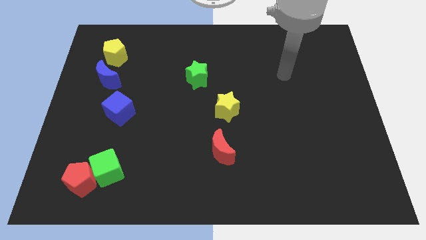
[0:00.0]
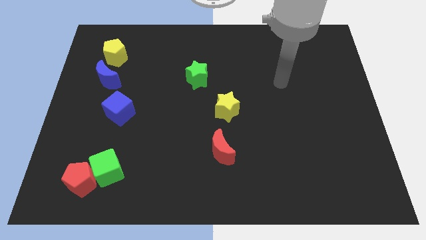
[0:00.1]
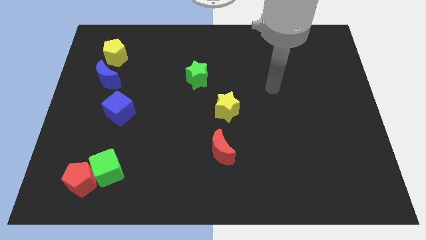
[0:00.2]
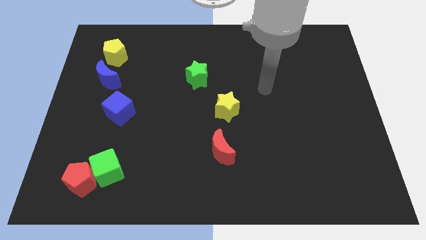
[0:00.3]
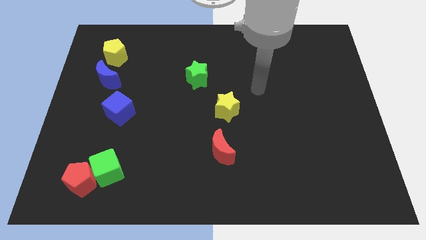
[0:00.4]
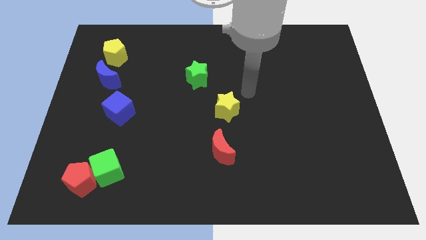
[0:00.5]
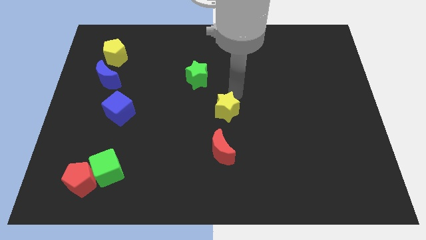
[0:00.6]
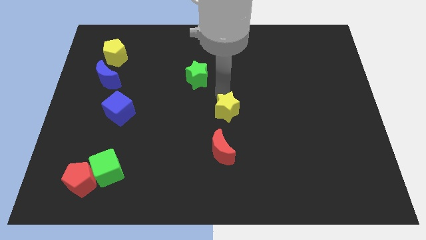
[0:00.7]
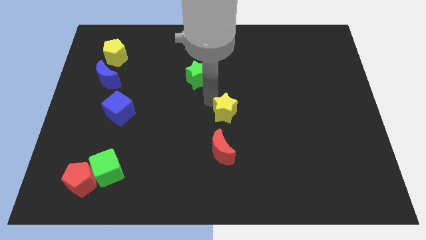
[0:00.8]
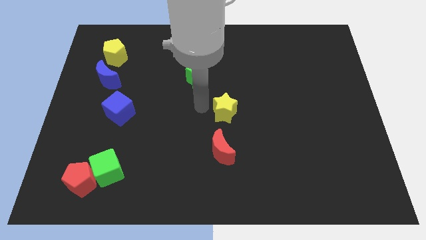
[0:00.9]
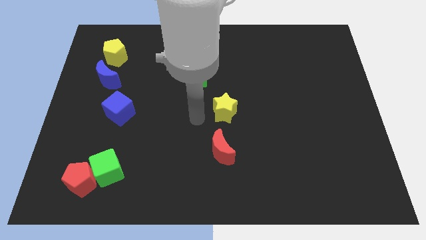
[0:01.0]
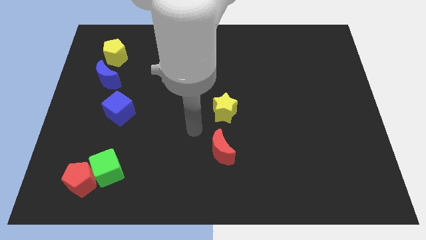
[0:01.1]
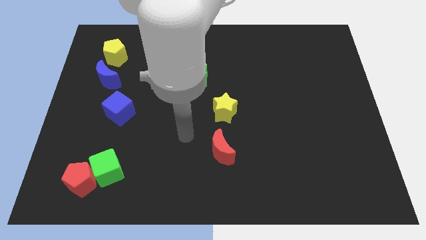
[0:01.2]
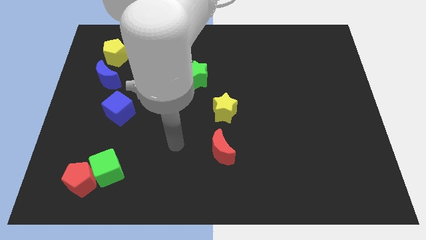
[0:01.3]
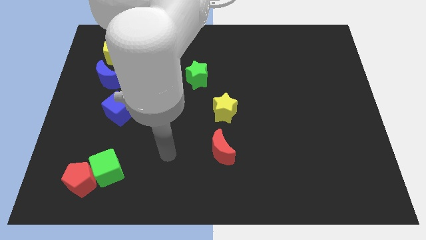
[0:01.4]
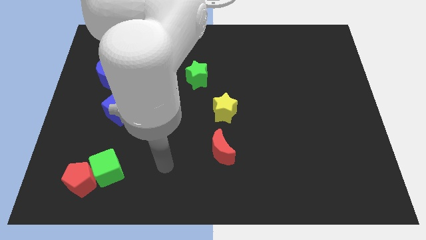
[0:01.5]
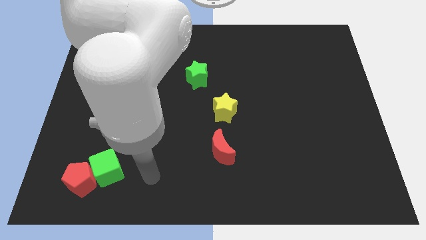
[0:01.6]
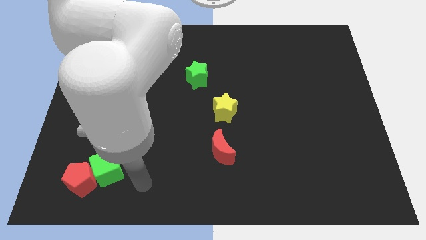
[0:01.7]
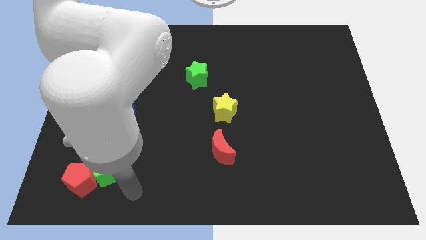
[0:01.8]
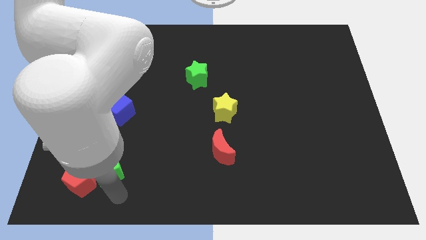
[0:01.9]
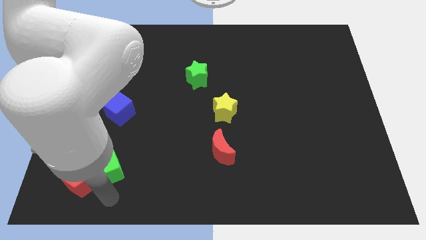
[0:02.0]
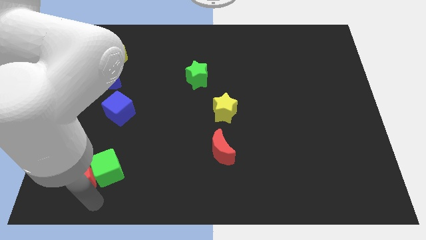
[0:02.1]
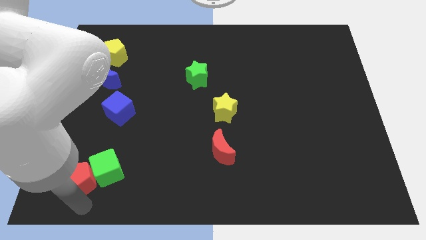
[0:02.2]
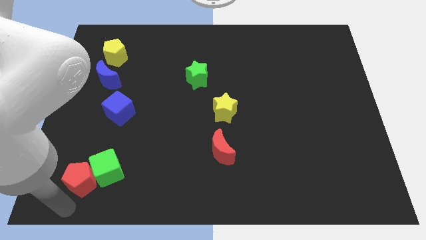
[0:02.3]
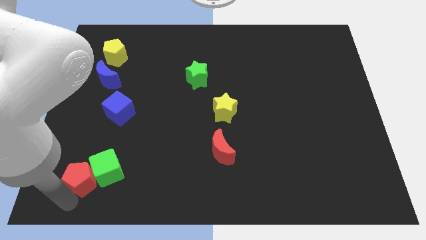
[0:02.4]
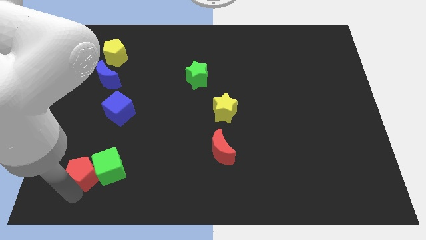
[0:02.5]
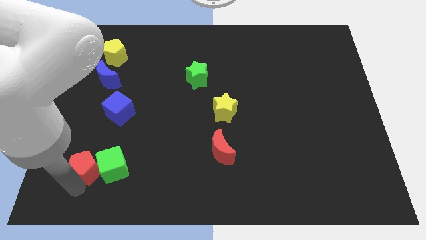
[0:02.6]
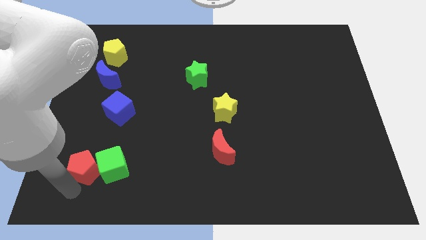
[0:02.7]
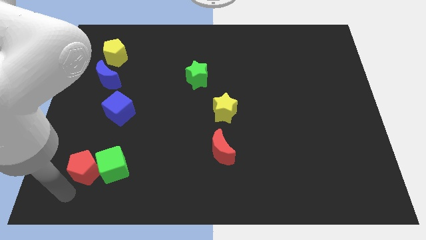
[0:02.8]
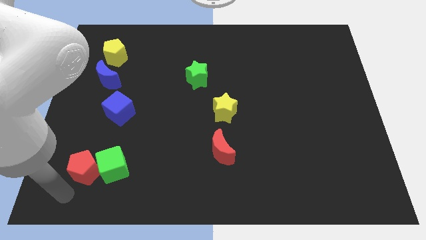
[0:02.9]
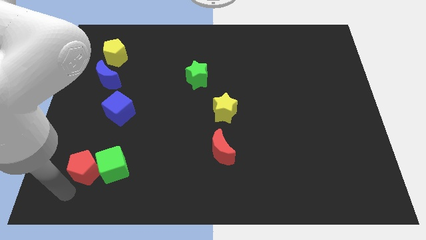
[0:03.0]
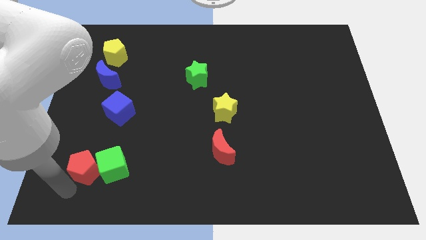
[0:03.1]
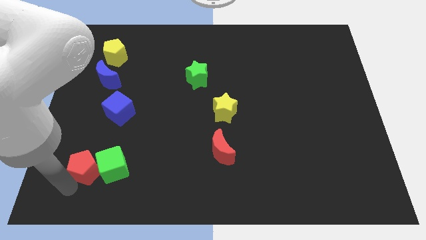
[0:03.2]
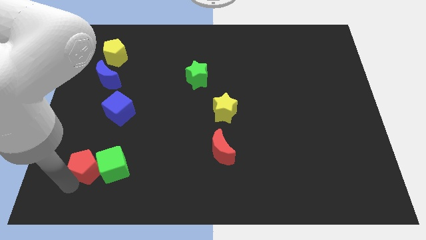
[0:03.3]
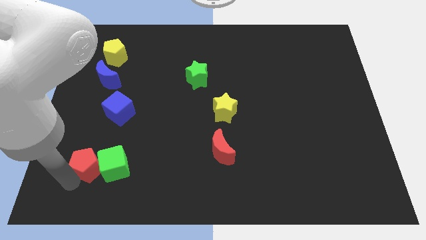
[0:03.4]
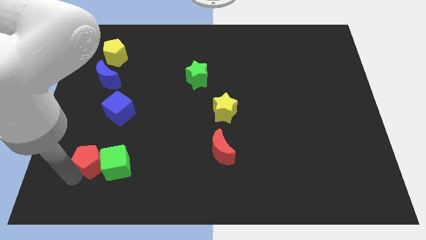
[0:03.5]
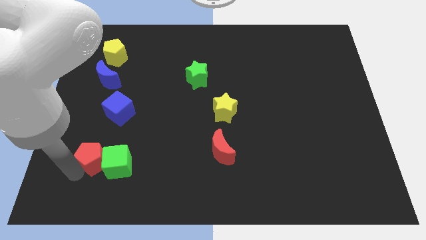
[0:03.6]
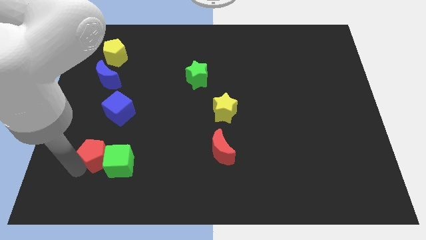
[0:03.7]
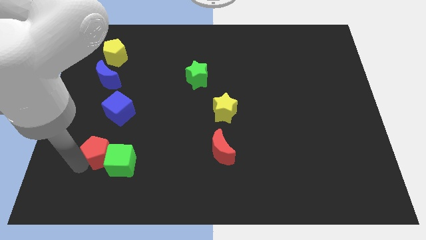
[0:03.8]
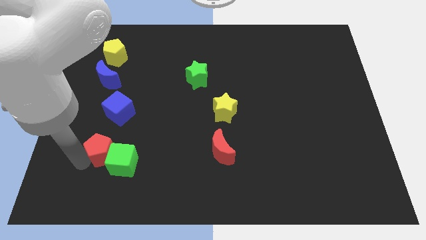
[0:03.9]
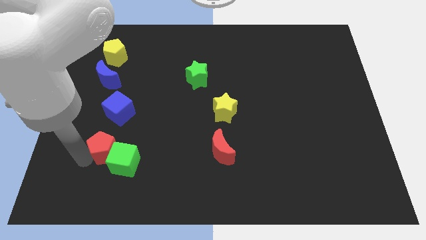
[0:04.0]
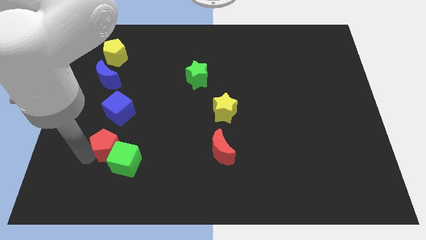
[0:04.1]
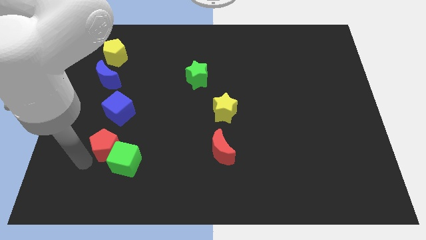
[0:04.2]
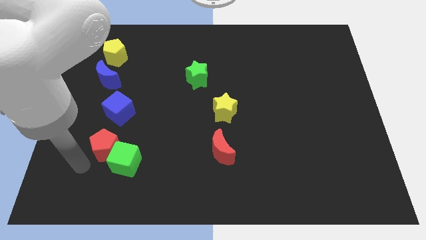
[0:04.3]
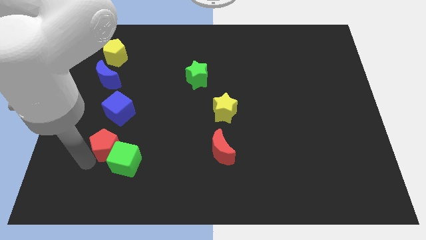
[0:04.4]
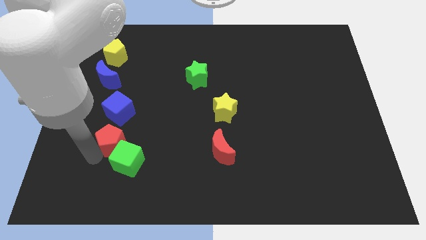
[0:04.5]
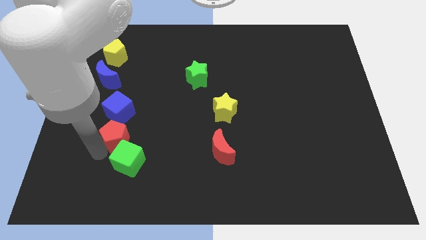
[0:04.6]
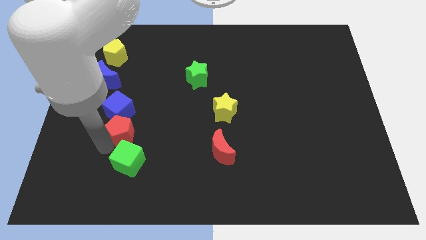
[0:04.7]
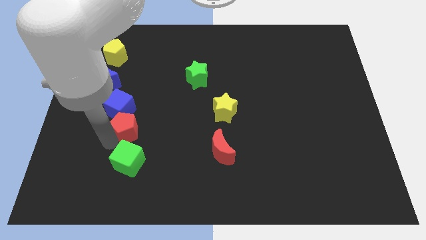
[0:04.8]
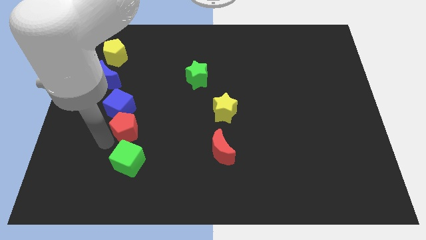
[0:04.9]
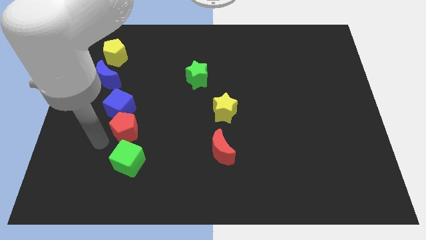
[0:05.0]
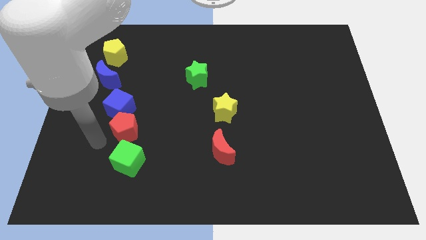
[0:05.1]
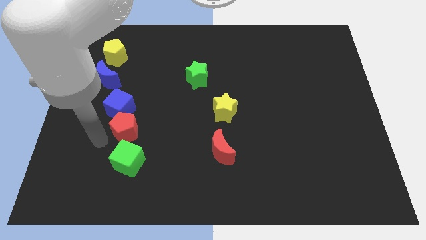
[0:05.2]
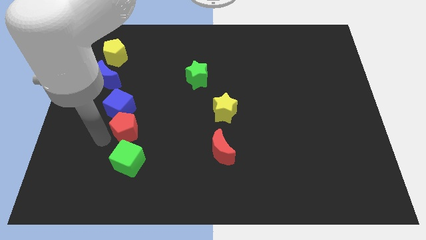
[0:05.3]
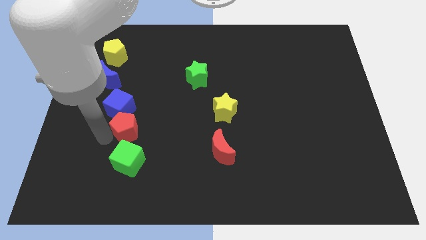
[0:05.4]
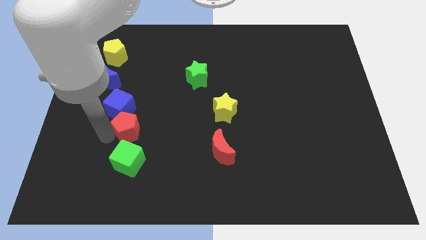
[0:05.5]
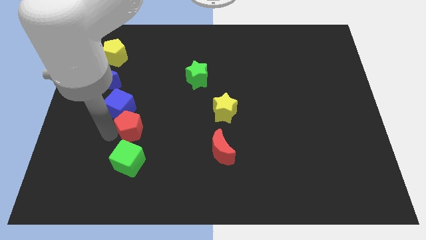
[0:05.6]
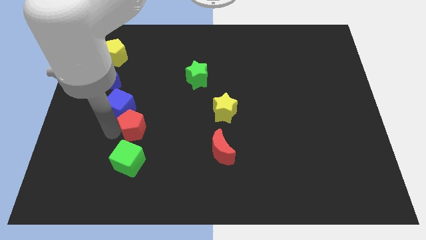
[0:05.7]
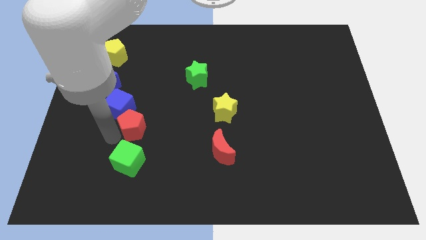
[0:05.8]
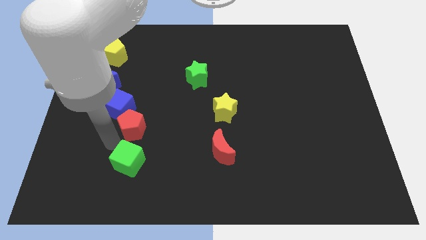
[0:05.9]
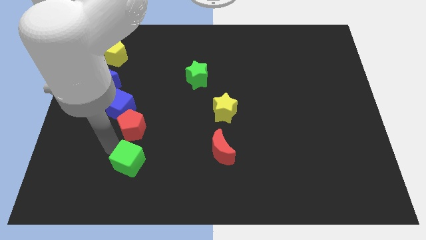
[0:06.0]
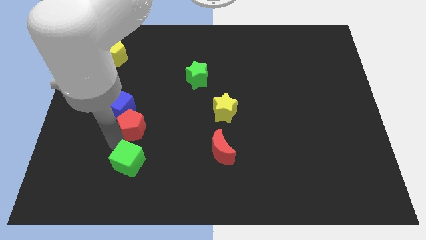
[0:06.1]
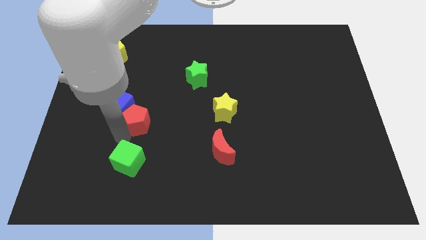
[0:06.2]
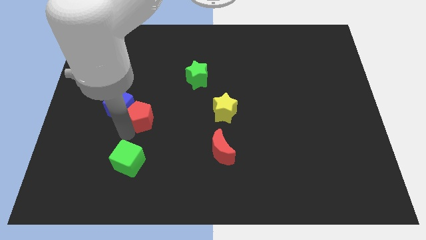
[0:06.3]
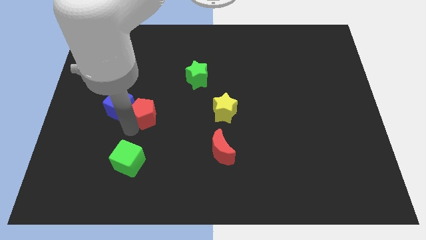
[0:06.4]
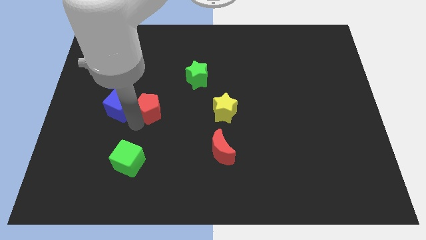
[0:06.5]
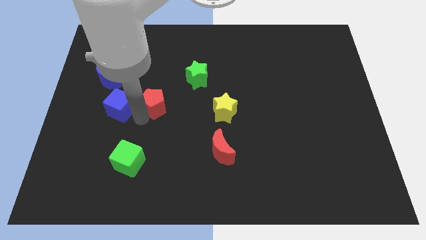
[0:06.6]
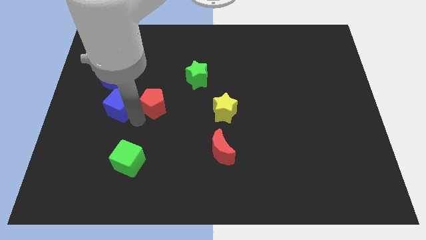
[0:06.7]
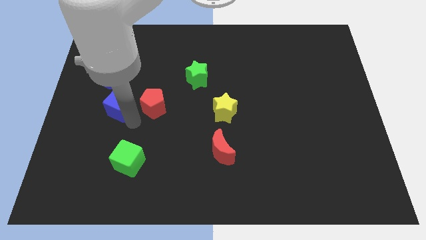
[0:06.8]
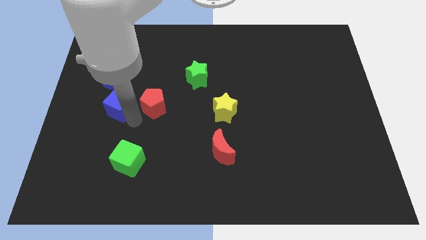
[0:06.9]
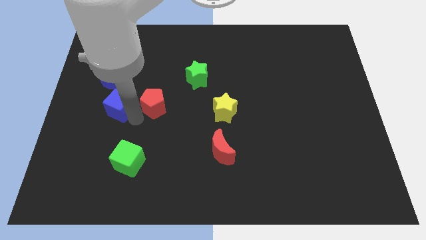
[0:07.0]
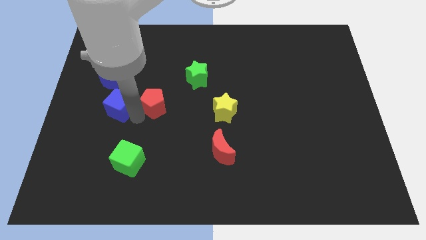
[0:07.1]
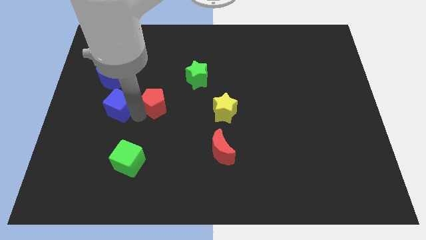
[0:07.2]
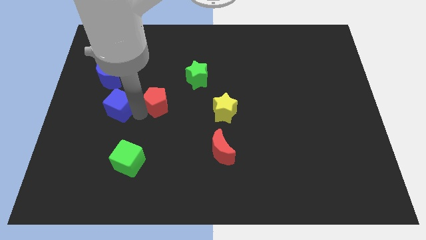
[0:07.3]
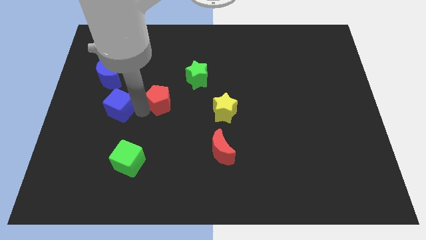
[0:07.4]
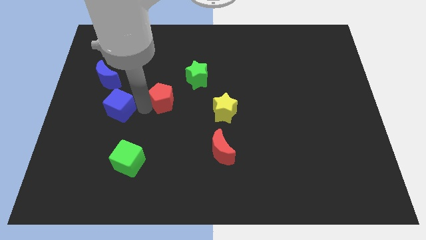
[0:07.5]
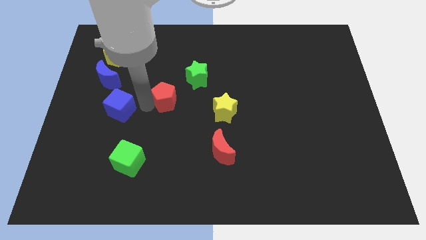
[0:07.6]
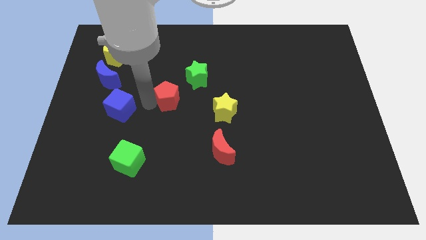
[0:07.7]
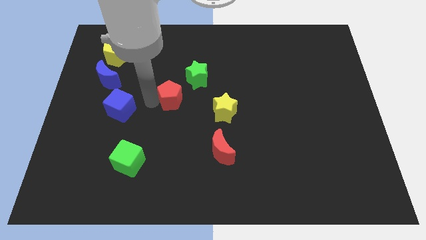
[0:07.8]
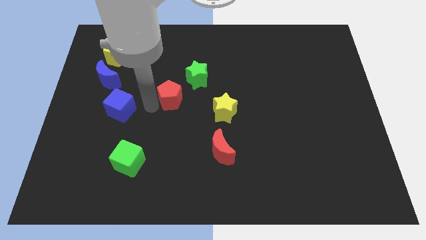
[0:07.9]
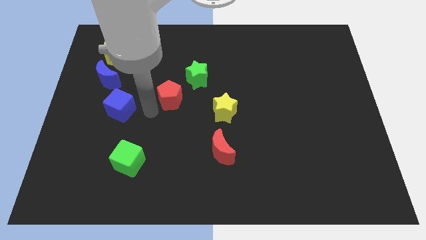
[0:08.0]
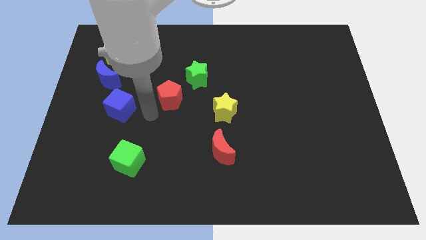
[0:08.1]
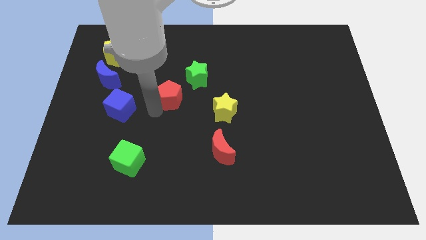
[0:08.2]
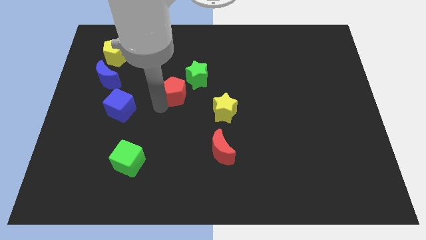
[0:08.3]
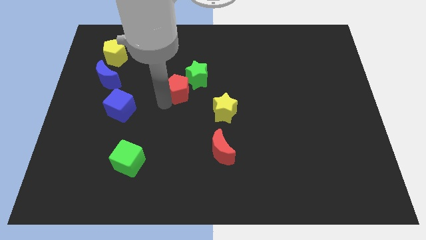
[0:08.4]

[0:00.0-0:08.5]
move the red pentagon to the green star
